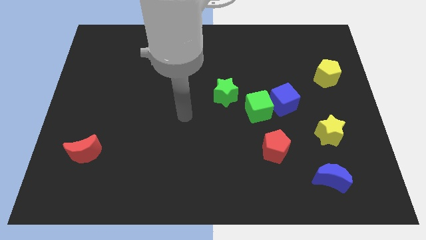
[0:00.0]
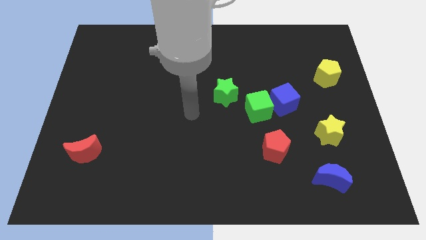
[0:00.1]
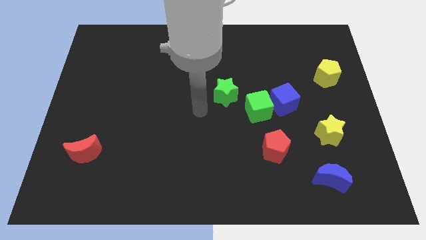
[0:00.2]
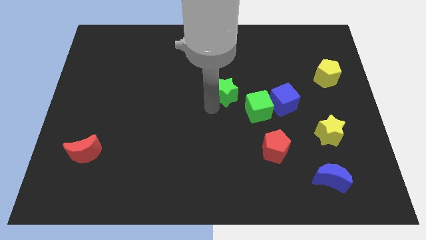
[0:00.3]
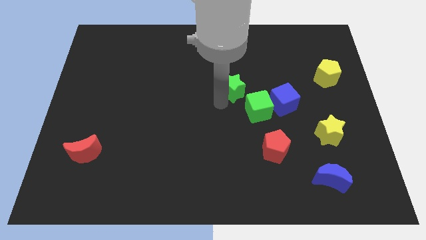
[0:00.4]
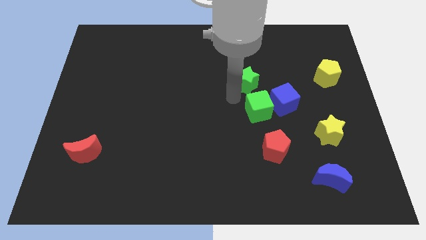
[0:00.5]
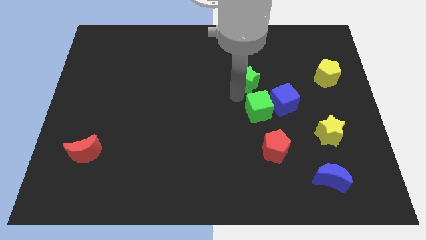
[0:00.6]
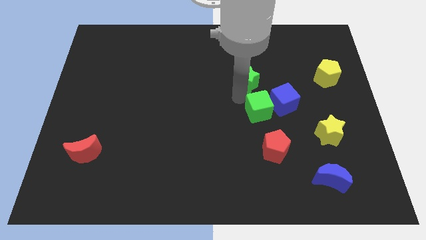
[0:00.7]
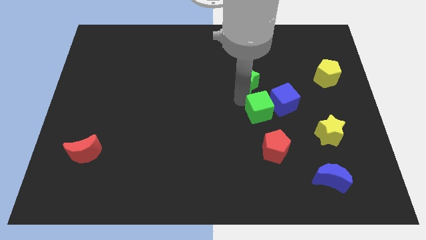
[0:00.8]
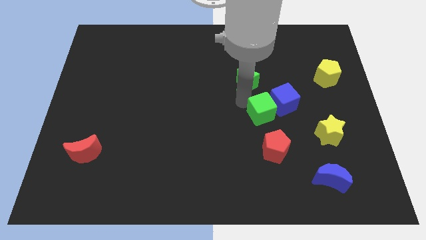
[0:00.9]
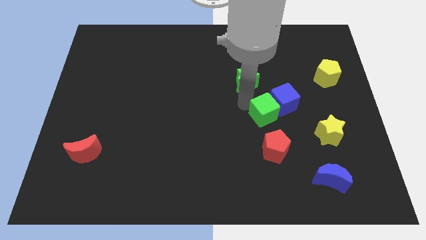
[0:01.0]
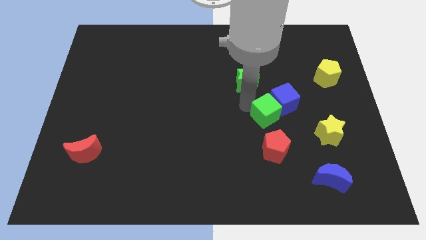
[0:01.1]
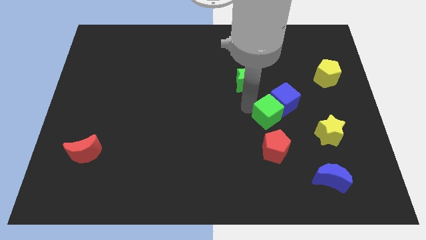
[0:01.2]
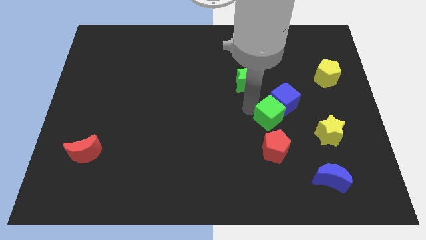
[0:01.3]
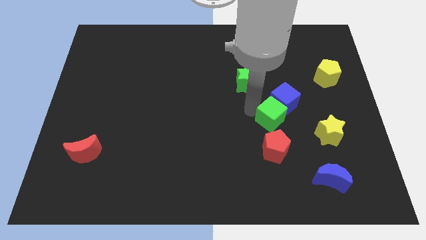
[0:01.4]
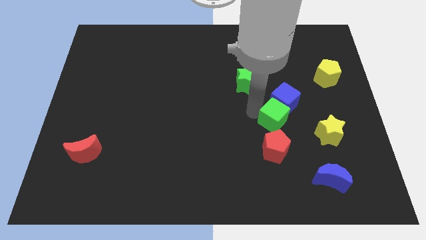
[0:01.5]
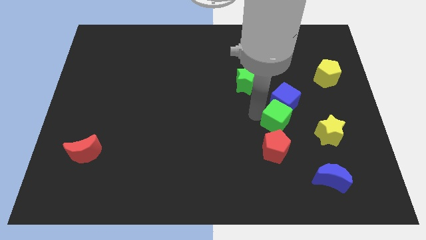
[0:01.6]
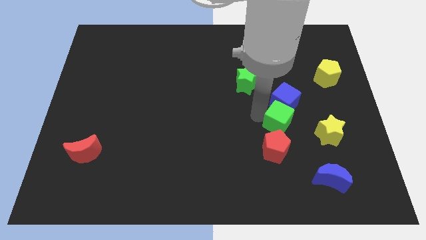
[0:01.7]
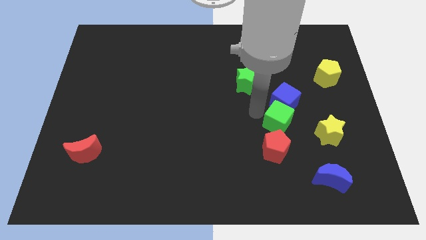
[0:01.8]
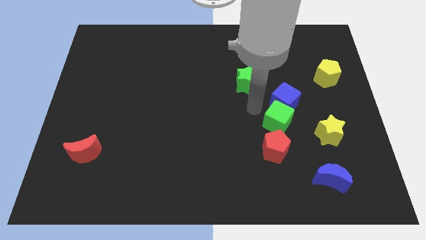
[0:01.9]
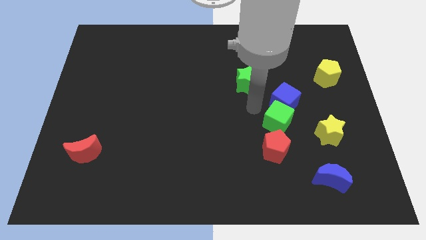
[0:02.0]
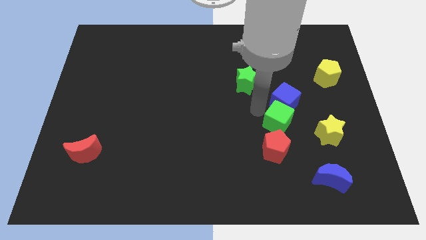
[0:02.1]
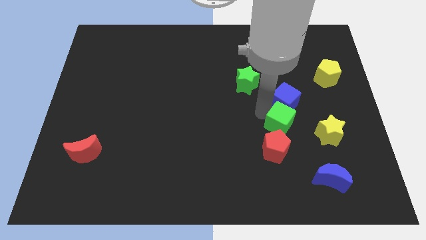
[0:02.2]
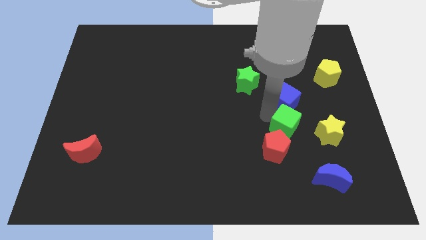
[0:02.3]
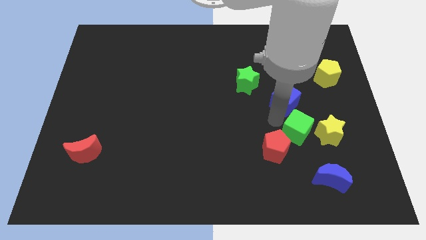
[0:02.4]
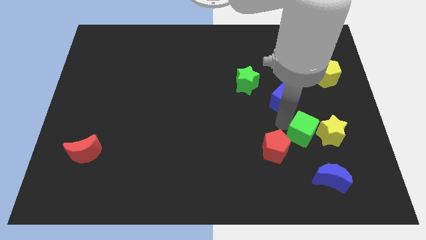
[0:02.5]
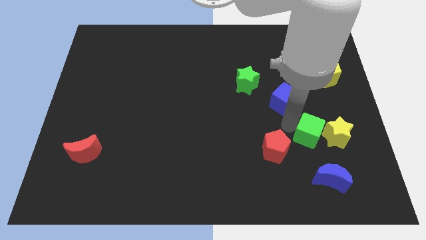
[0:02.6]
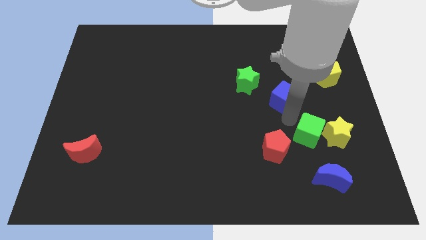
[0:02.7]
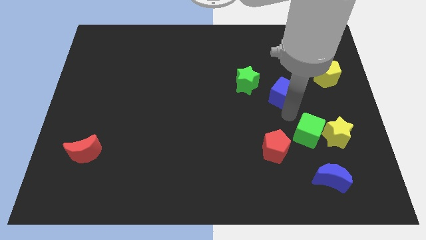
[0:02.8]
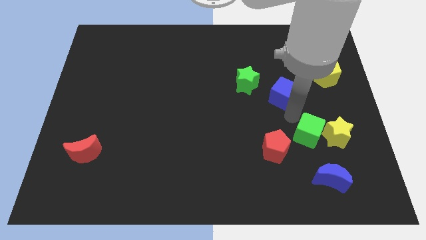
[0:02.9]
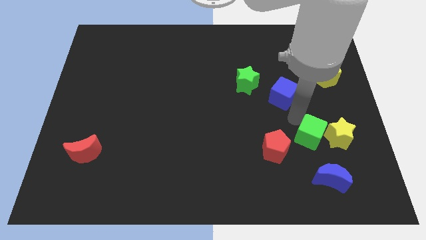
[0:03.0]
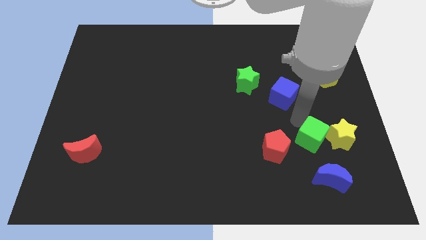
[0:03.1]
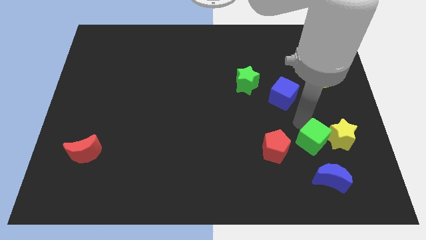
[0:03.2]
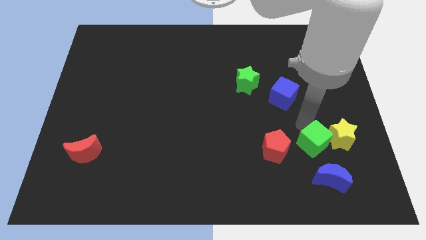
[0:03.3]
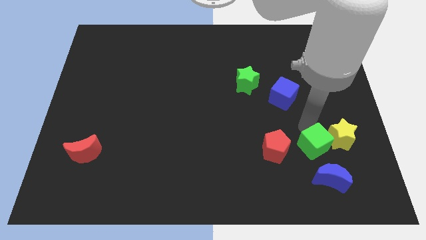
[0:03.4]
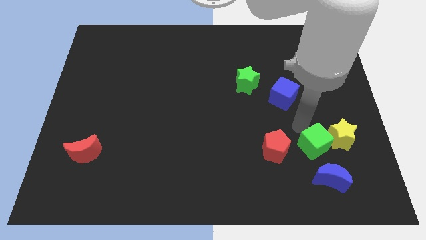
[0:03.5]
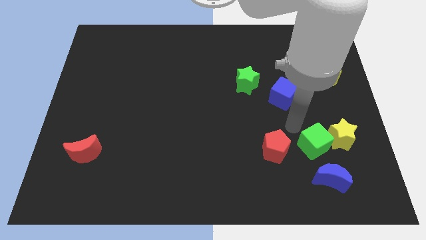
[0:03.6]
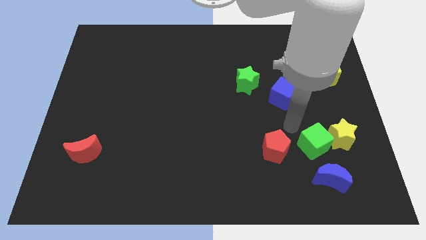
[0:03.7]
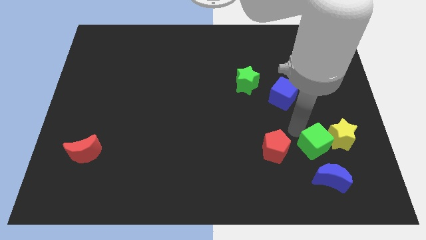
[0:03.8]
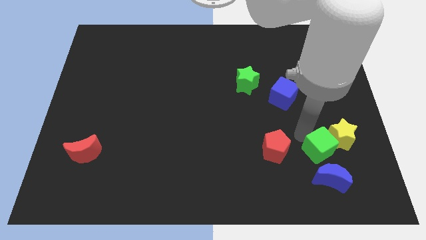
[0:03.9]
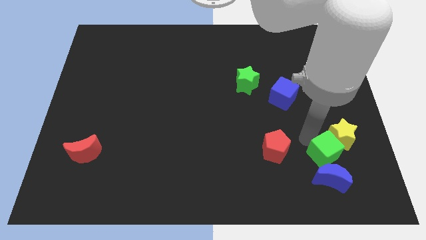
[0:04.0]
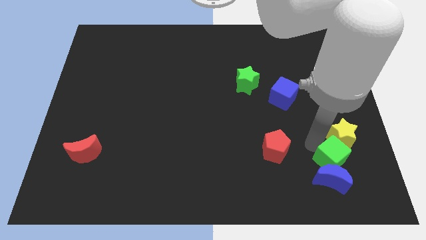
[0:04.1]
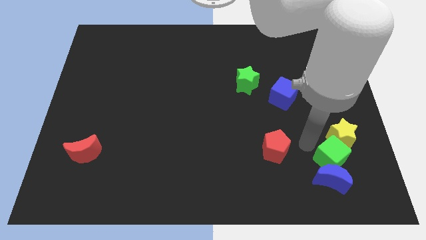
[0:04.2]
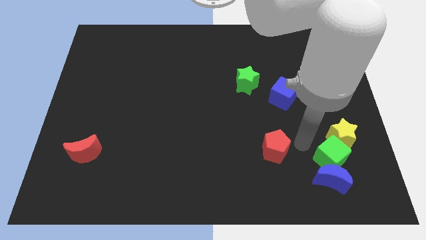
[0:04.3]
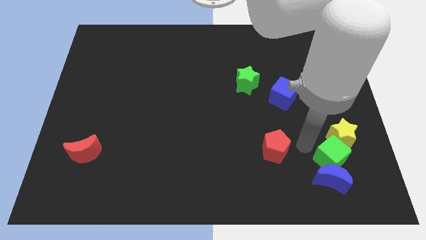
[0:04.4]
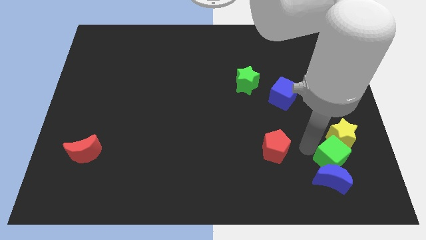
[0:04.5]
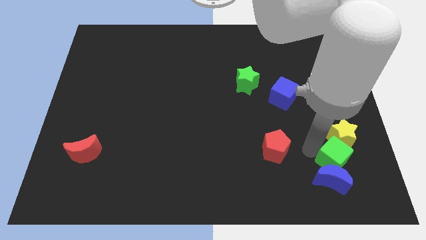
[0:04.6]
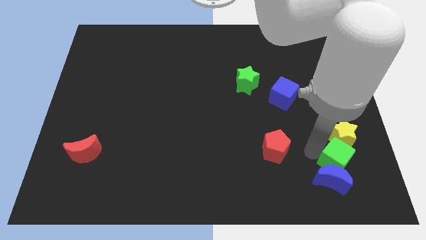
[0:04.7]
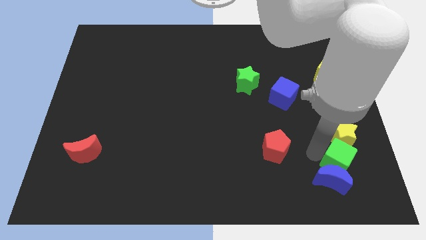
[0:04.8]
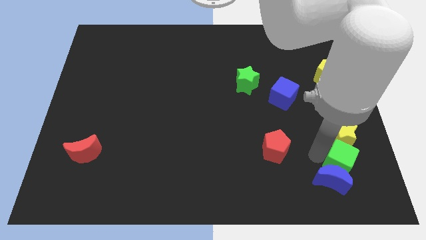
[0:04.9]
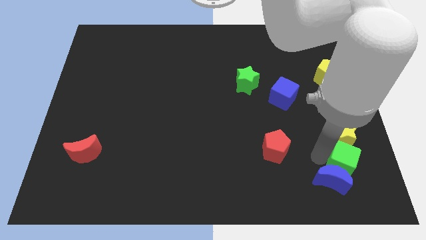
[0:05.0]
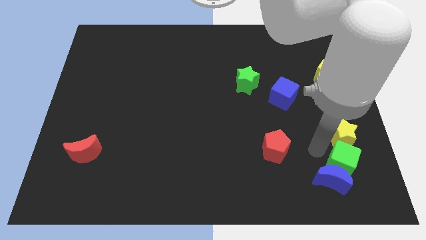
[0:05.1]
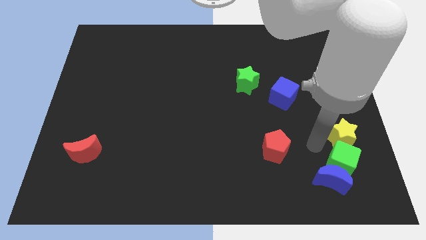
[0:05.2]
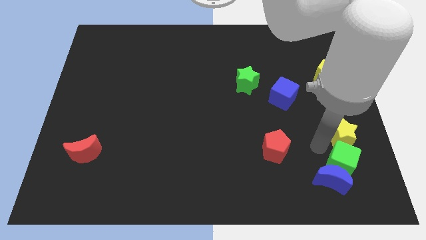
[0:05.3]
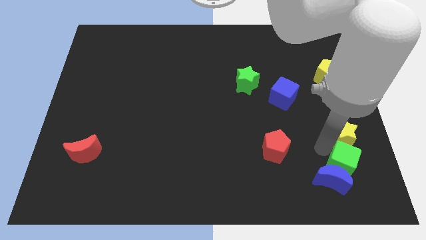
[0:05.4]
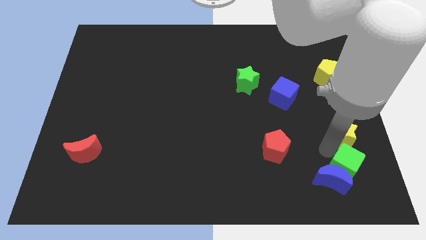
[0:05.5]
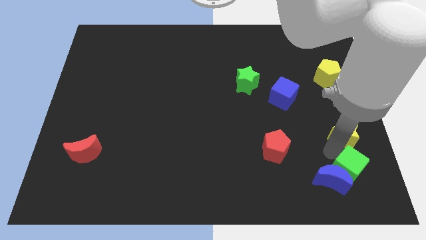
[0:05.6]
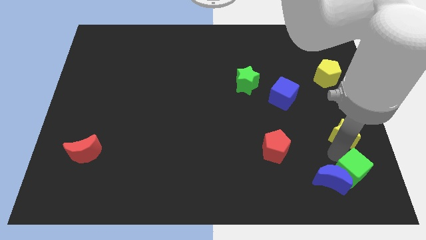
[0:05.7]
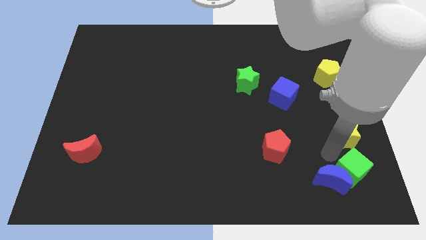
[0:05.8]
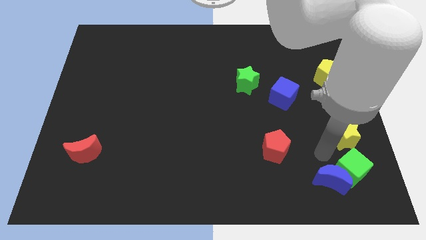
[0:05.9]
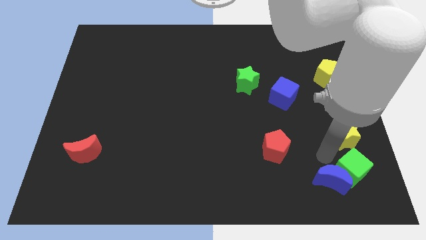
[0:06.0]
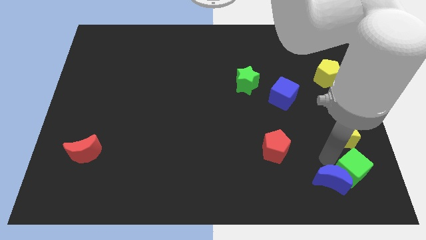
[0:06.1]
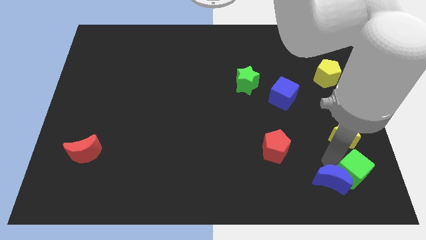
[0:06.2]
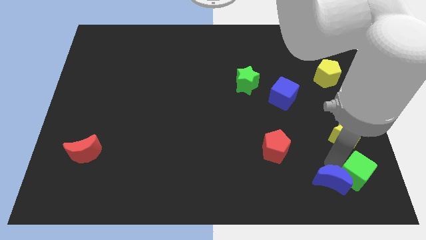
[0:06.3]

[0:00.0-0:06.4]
put the green cube to the bottom right of the board

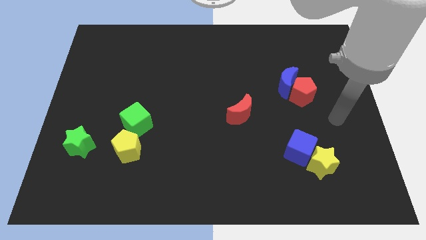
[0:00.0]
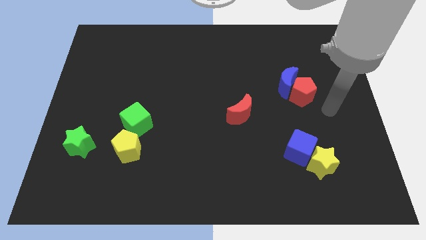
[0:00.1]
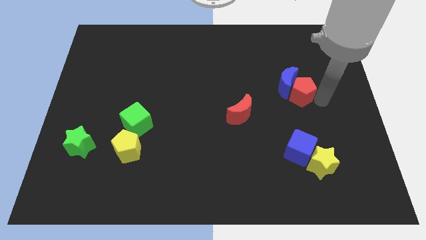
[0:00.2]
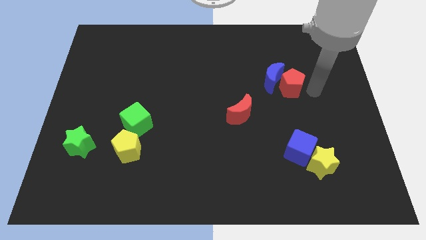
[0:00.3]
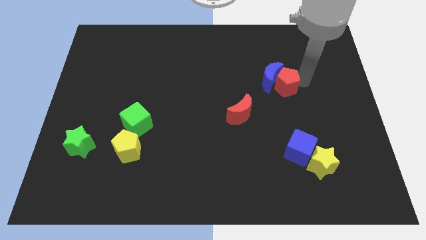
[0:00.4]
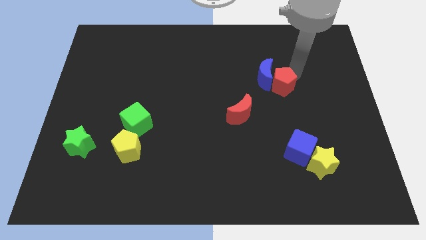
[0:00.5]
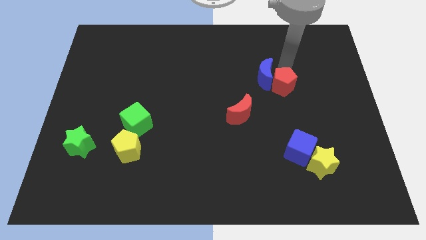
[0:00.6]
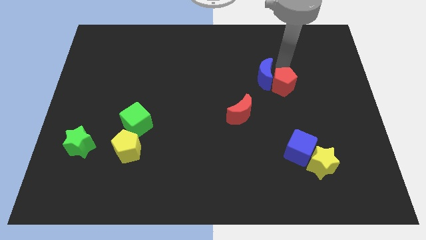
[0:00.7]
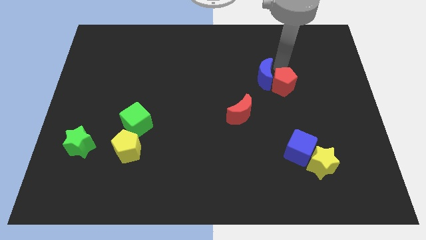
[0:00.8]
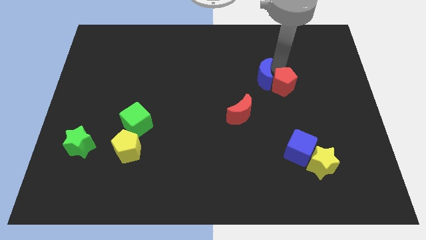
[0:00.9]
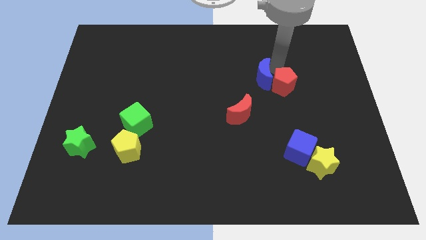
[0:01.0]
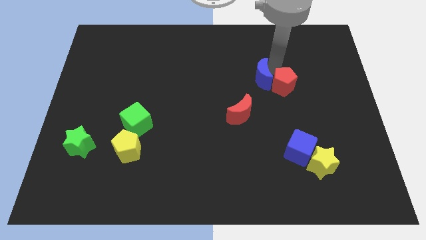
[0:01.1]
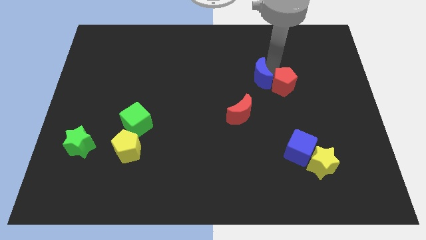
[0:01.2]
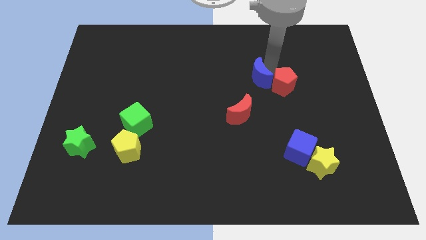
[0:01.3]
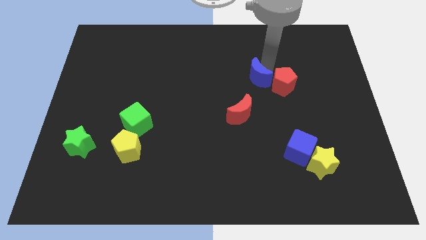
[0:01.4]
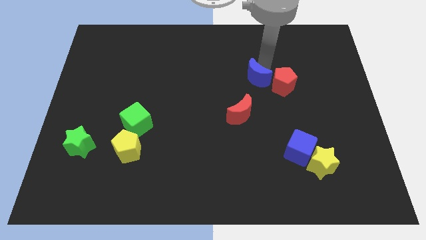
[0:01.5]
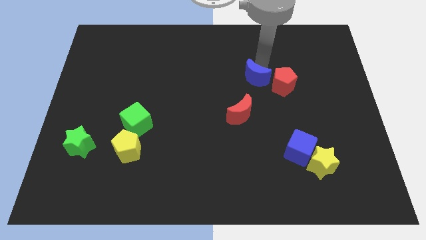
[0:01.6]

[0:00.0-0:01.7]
slide the blue moon to the middle of the board
